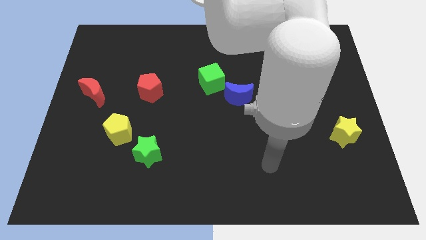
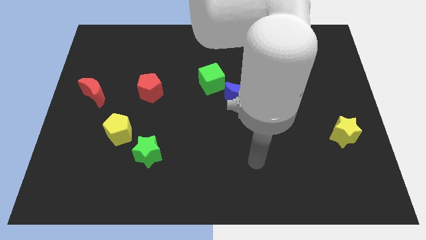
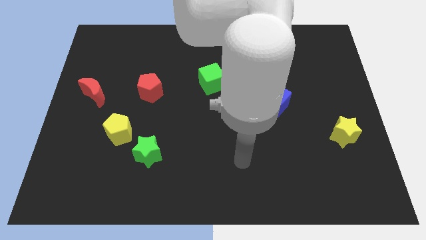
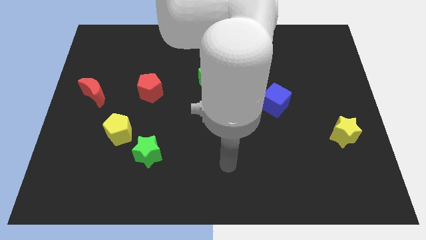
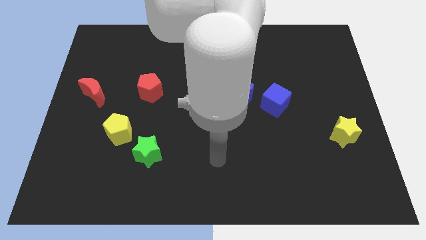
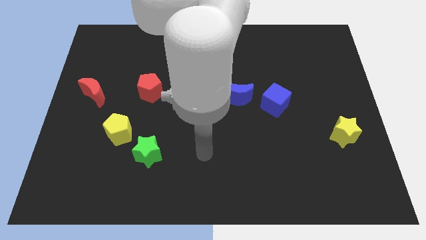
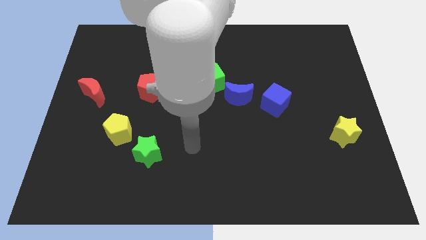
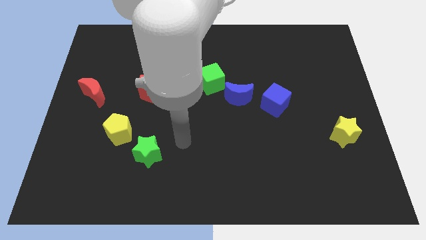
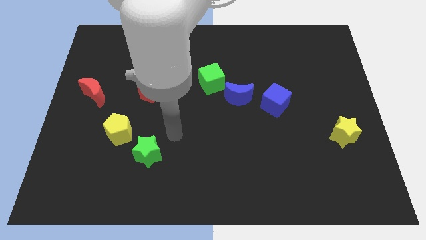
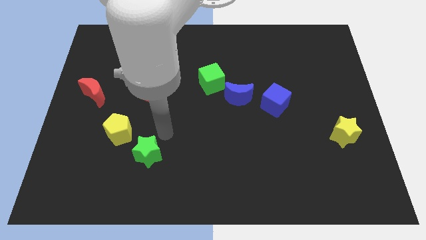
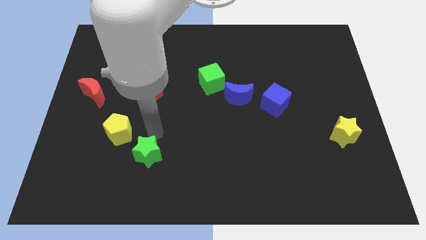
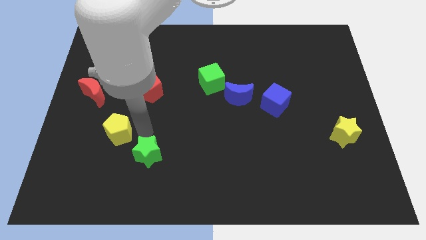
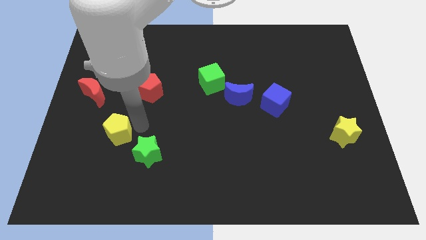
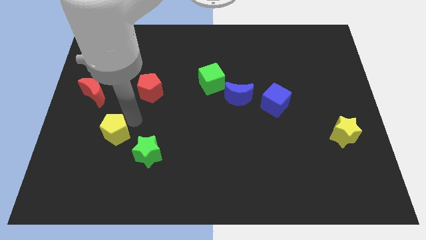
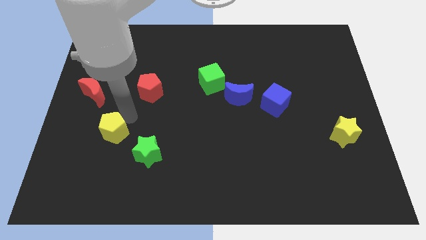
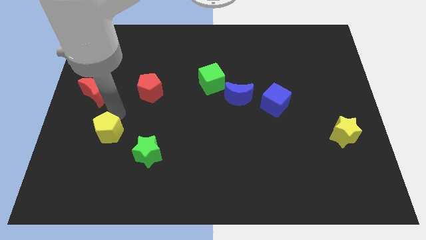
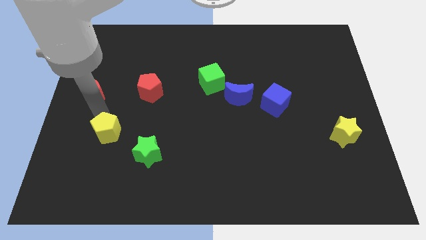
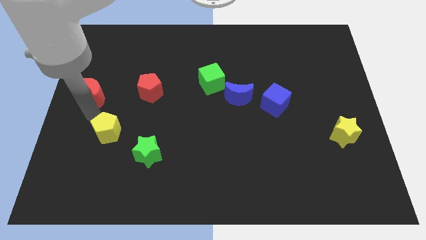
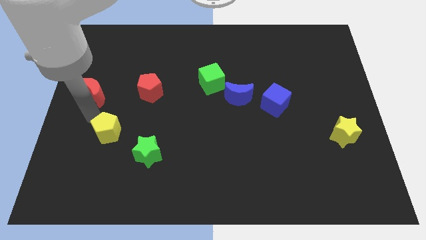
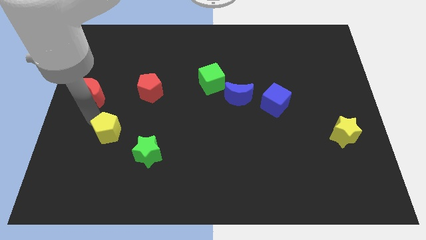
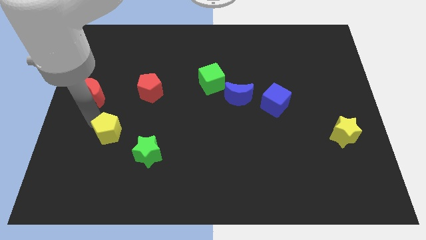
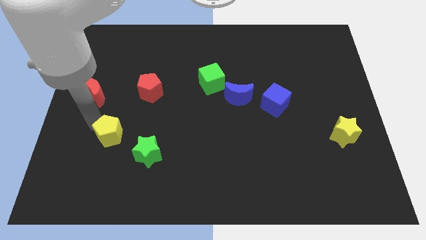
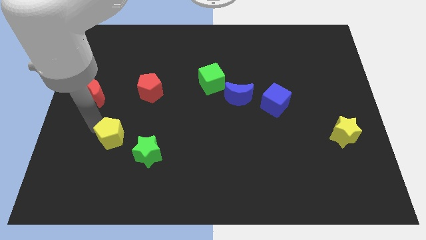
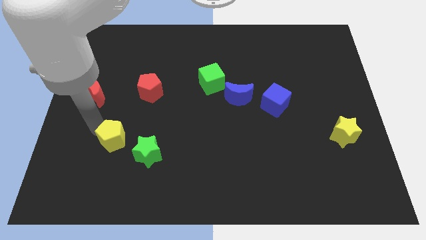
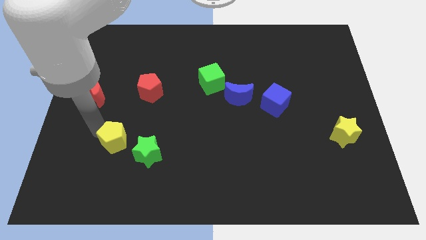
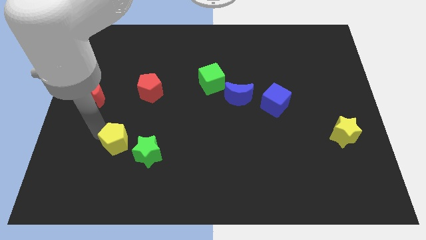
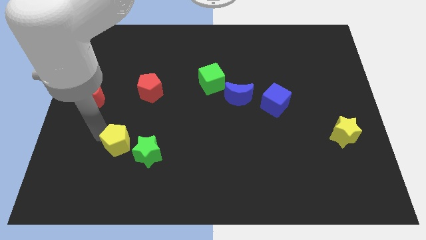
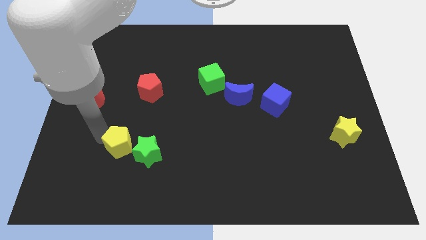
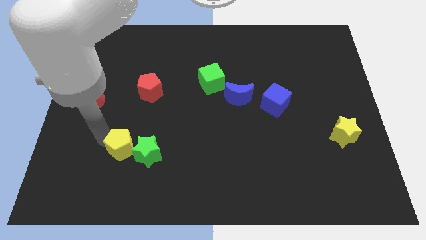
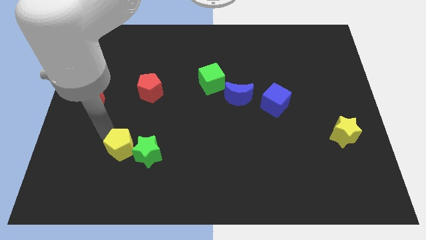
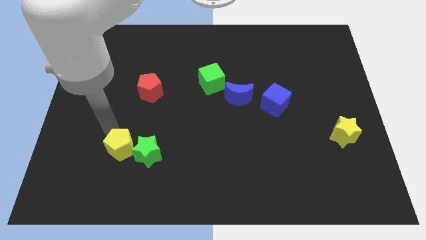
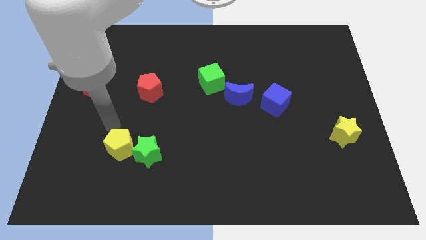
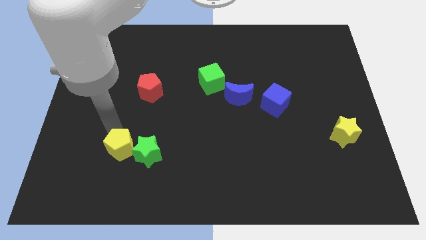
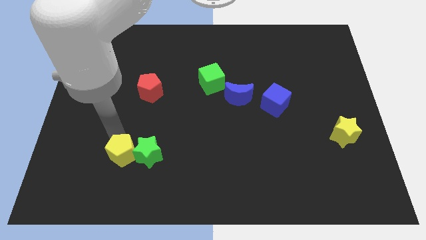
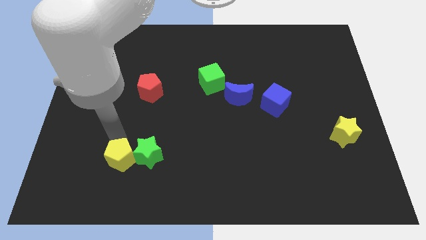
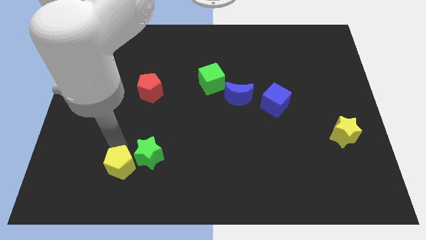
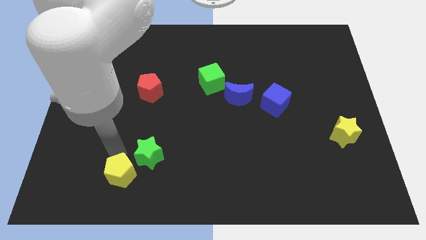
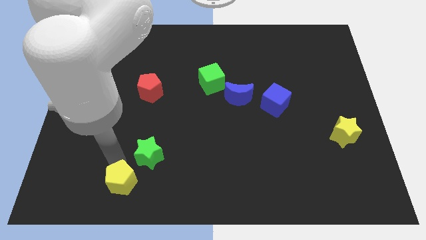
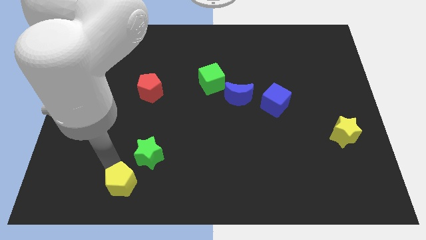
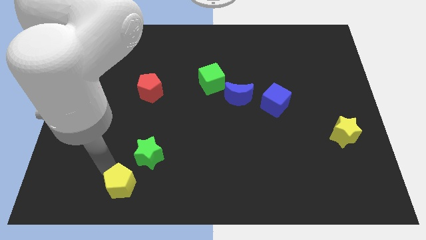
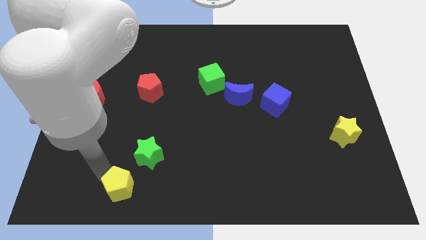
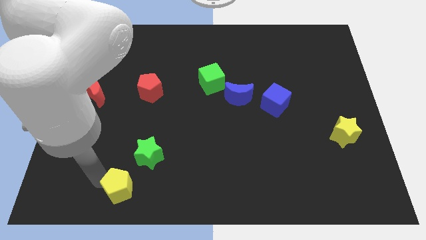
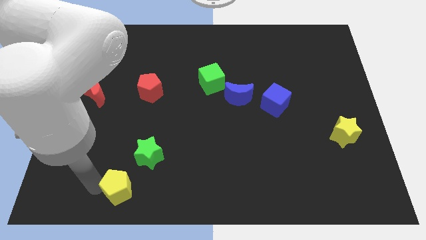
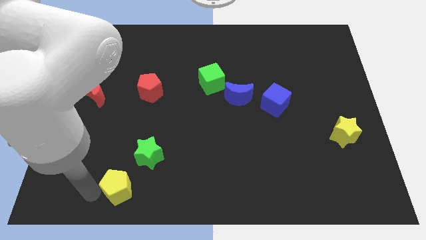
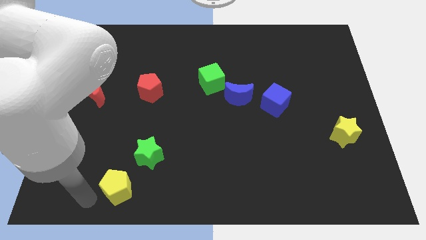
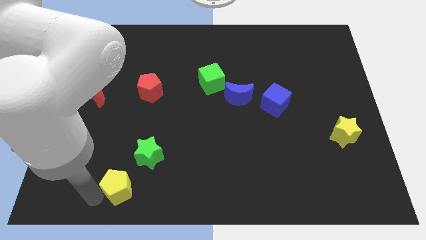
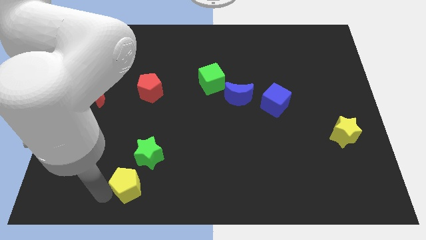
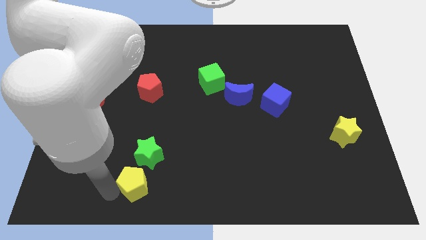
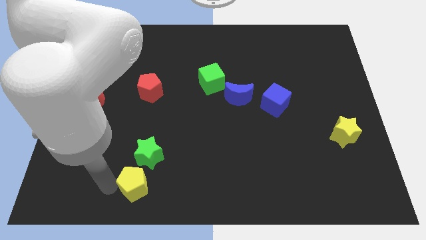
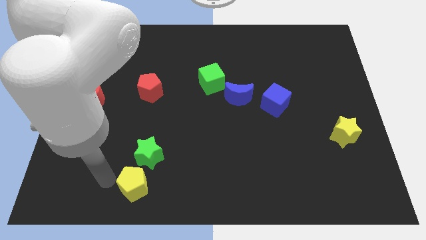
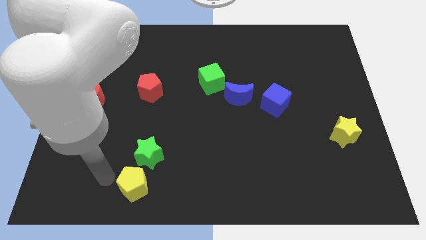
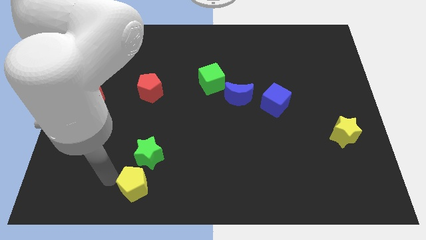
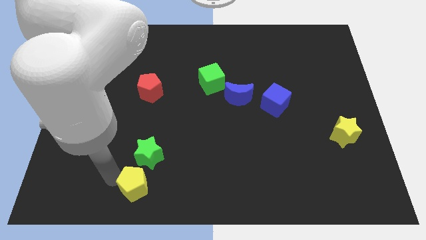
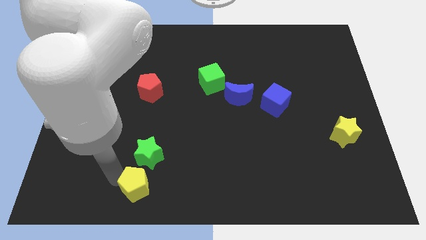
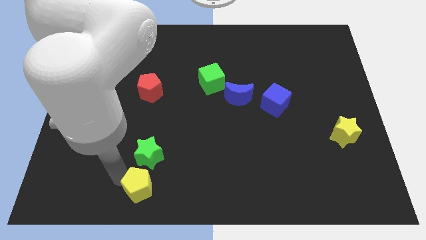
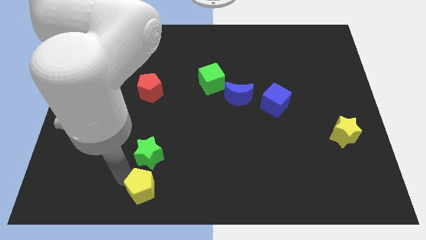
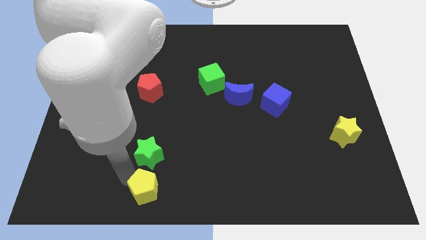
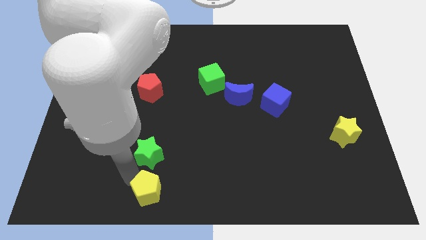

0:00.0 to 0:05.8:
slide the yellow pentagon to the bottom side

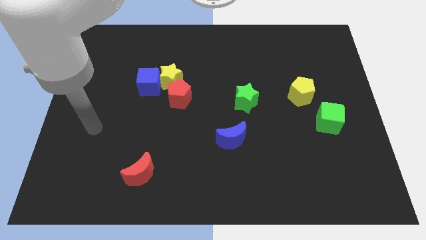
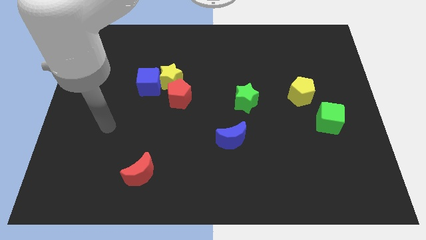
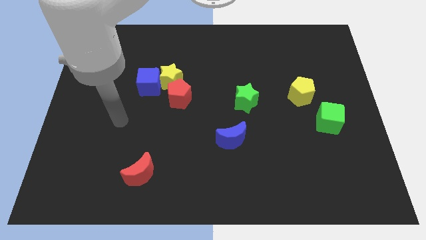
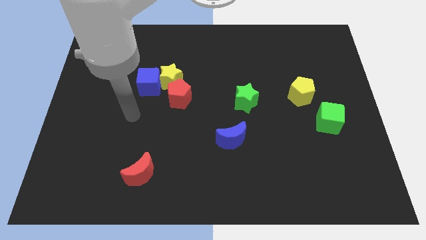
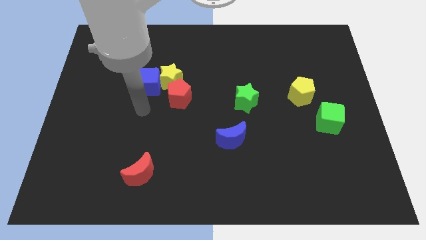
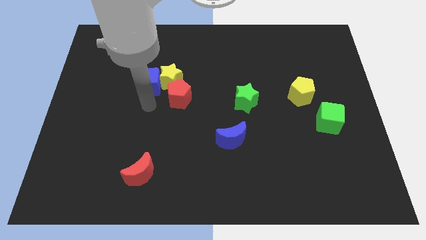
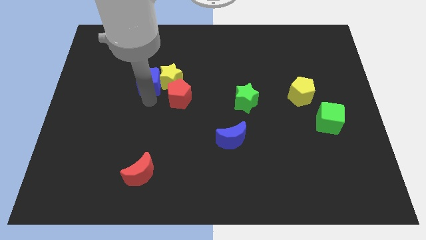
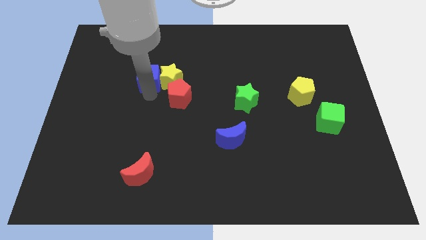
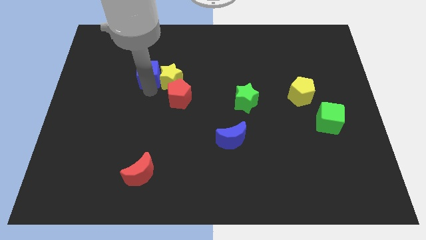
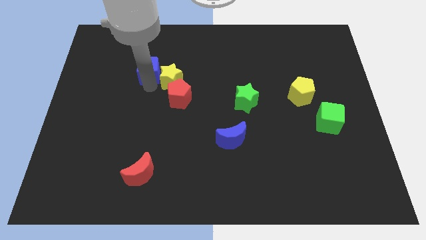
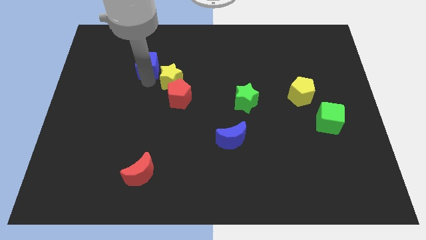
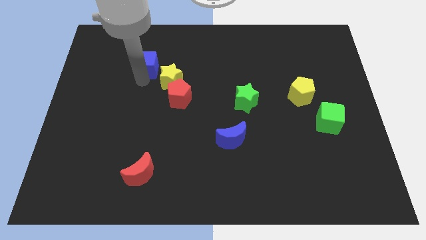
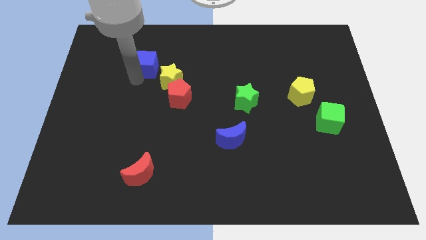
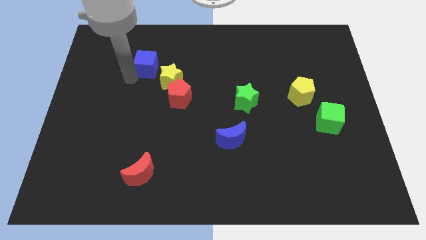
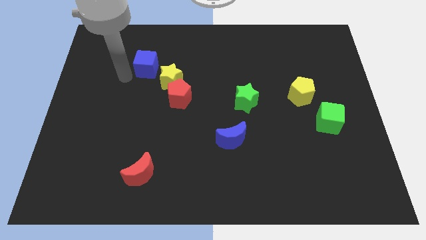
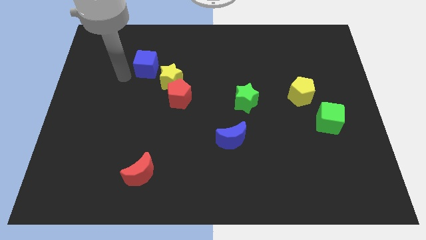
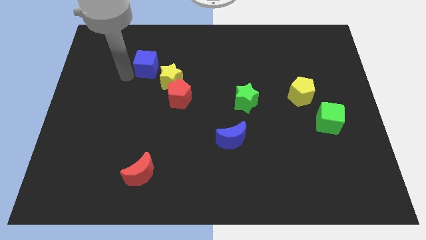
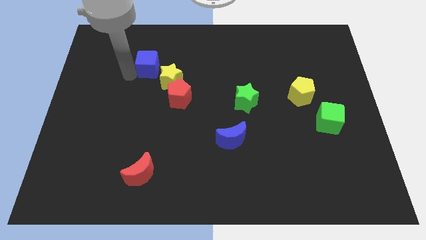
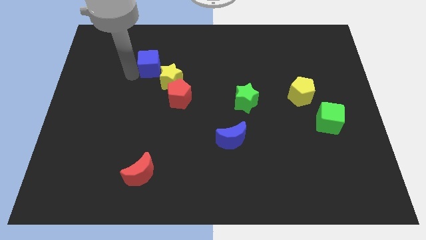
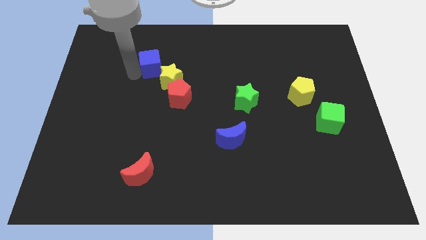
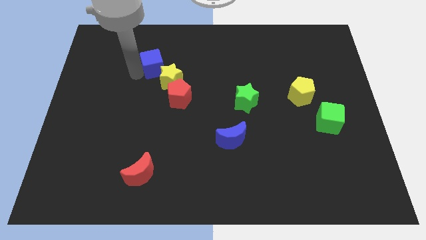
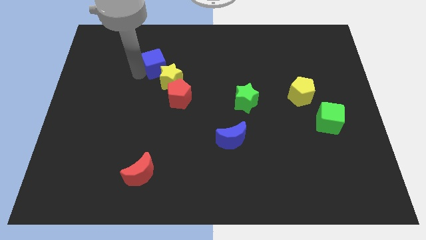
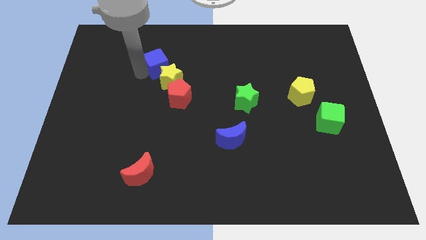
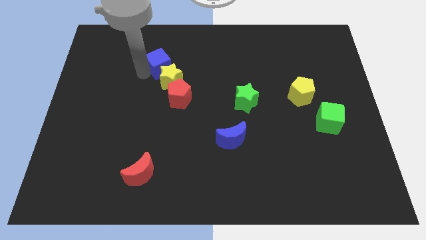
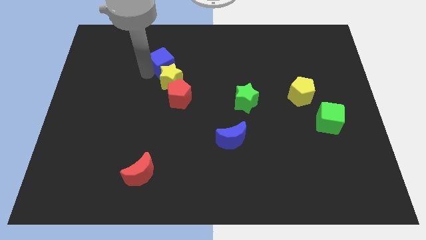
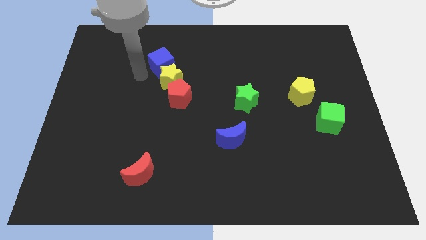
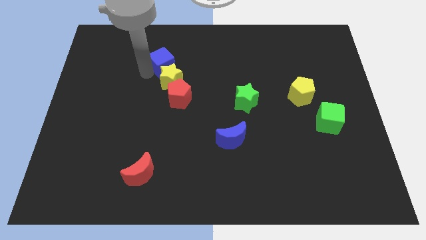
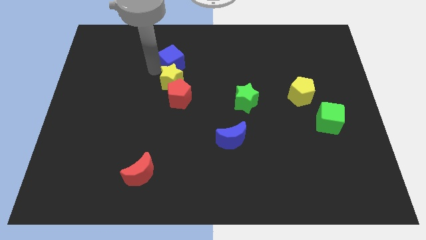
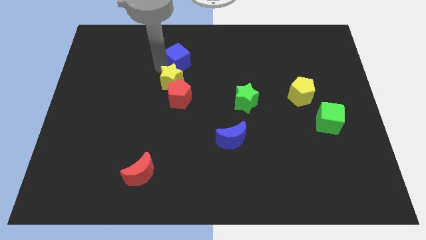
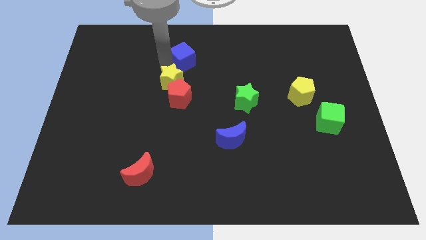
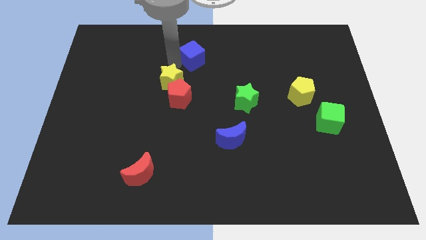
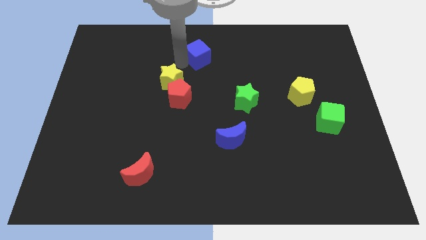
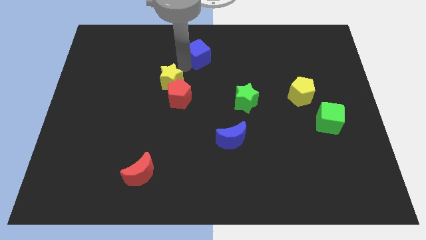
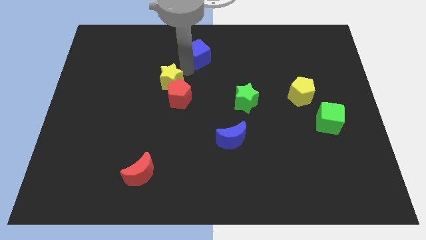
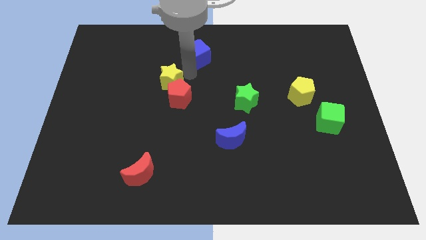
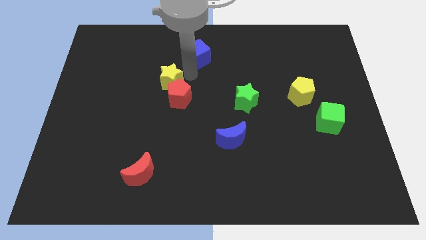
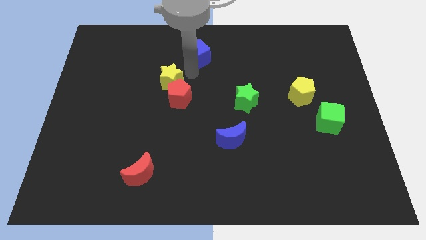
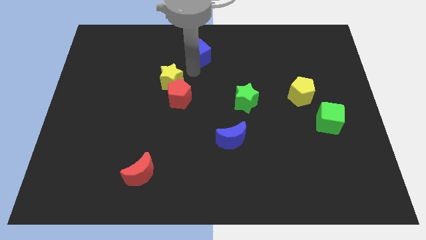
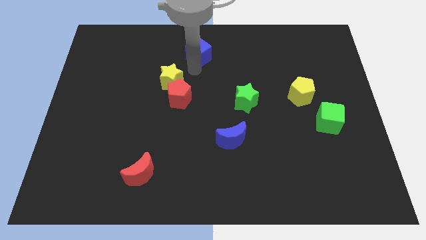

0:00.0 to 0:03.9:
move the blue cube to the top side
